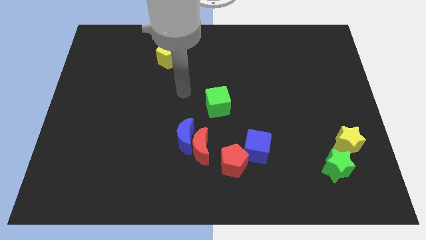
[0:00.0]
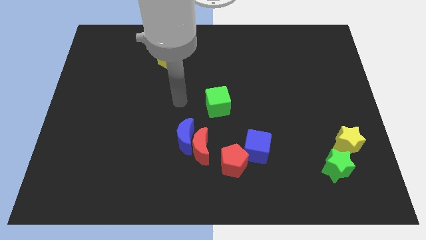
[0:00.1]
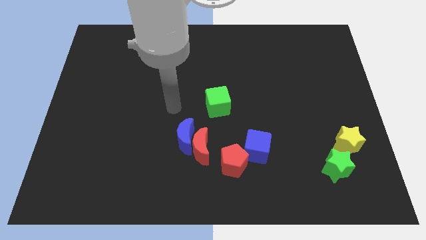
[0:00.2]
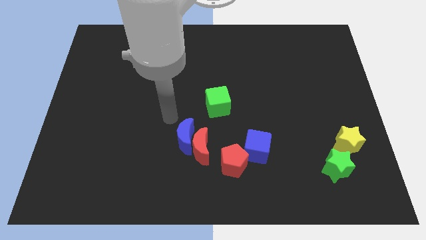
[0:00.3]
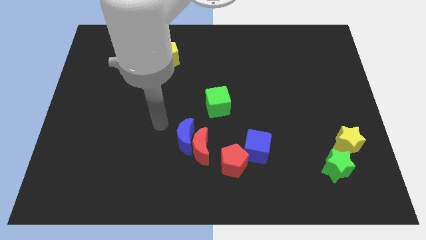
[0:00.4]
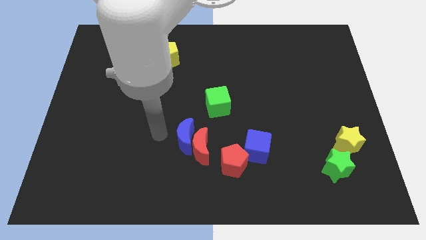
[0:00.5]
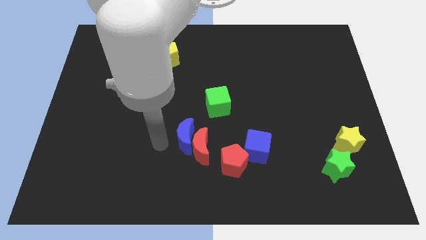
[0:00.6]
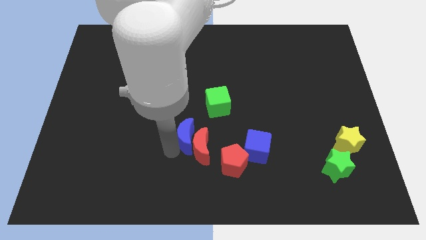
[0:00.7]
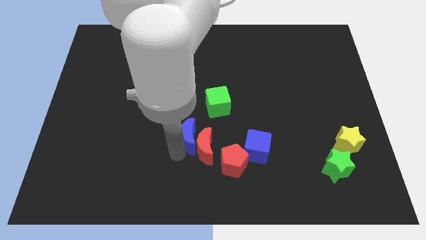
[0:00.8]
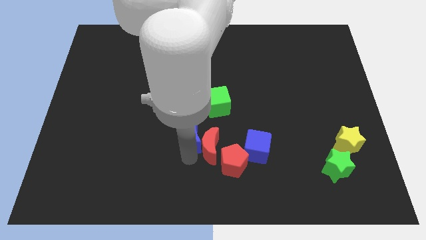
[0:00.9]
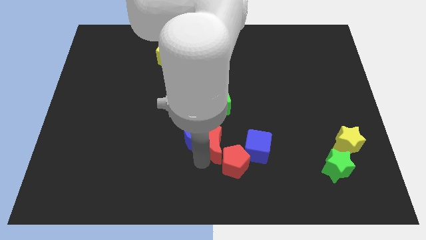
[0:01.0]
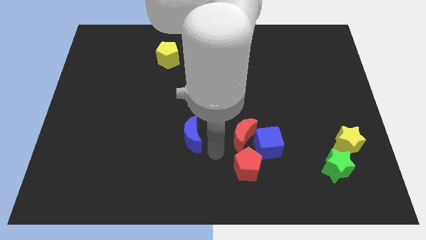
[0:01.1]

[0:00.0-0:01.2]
pull the blue moon apart from the red moon

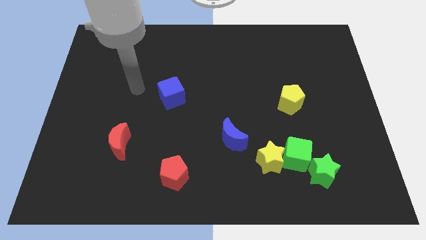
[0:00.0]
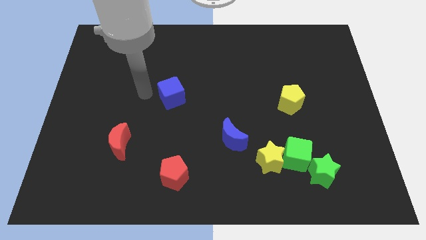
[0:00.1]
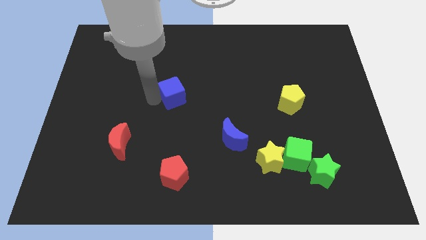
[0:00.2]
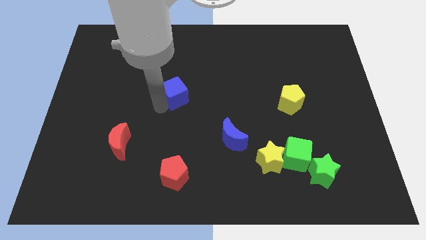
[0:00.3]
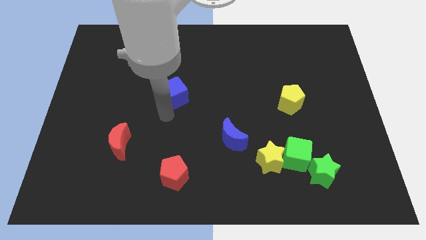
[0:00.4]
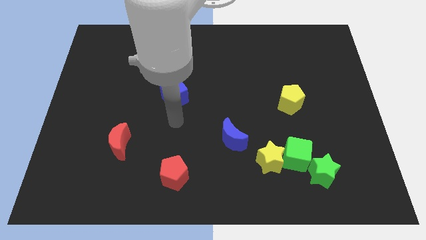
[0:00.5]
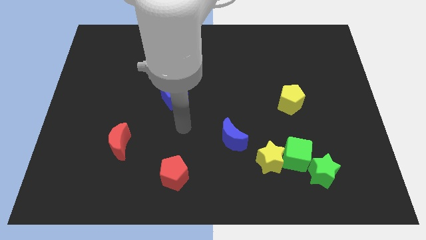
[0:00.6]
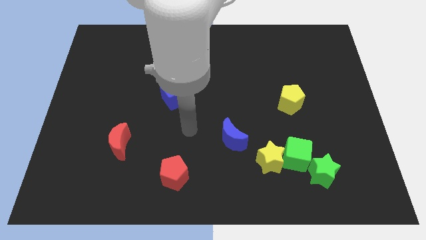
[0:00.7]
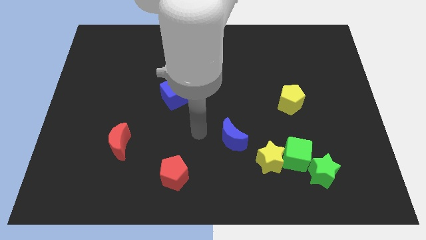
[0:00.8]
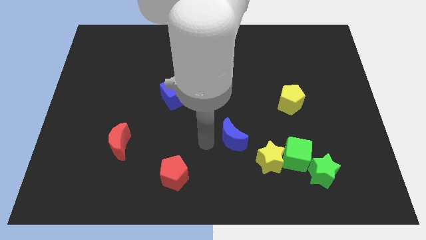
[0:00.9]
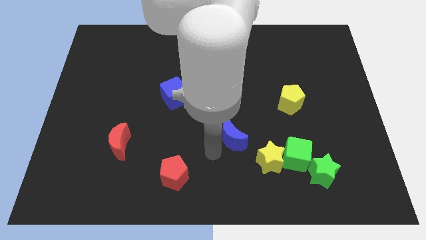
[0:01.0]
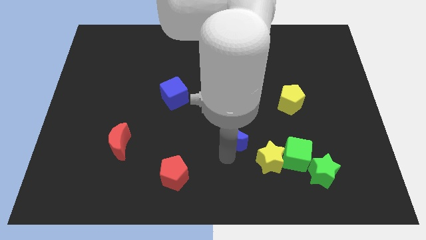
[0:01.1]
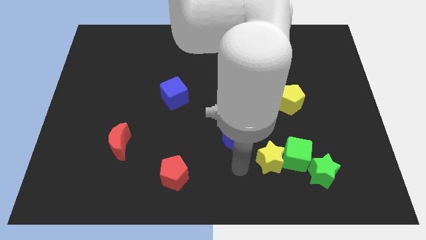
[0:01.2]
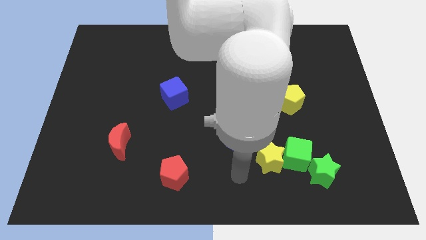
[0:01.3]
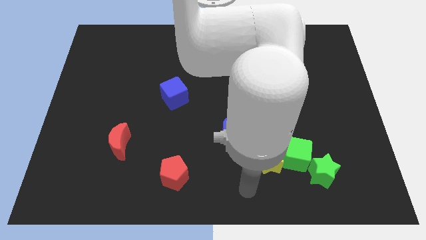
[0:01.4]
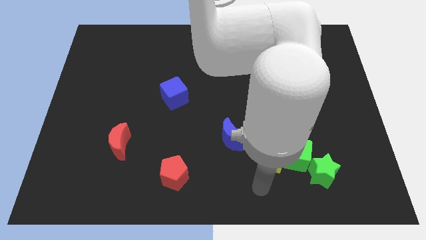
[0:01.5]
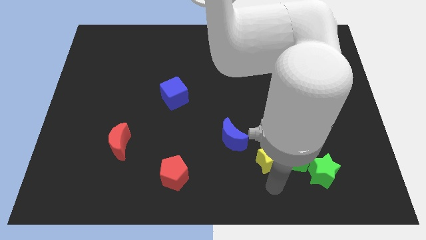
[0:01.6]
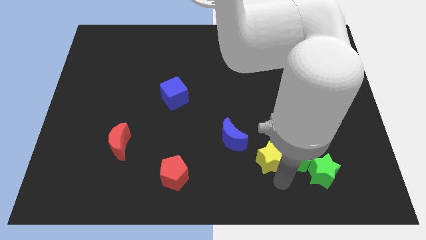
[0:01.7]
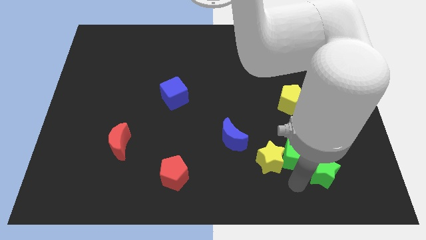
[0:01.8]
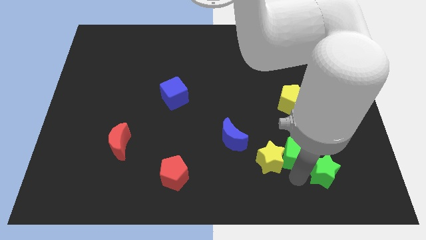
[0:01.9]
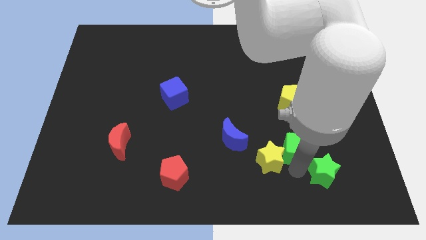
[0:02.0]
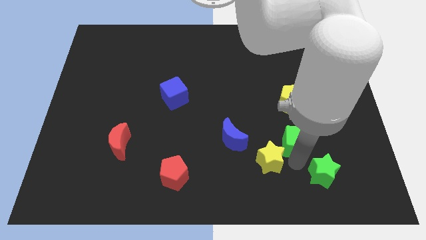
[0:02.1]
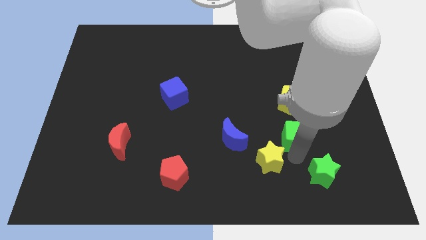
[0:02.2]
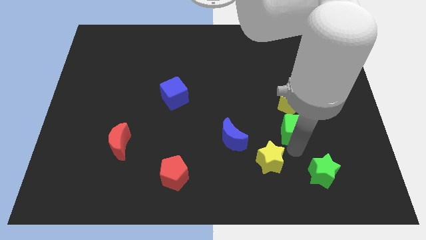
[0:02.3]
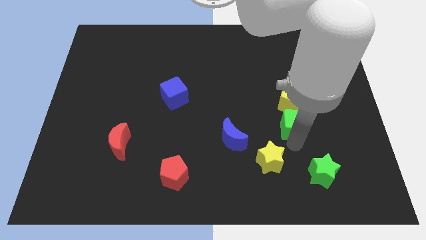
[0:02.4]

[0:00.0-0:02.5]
separate the green cube from the yellow star and green star

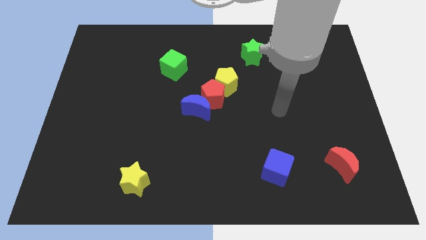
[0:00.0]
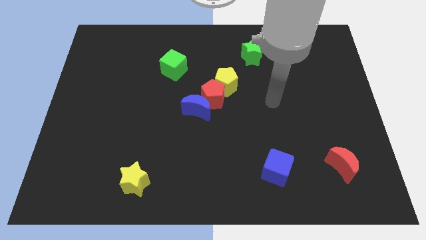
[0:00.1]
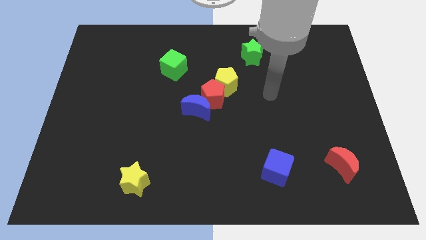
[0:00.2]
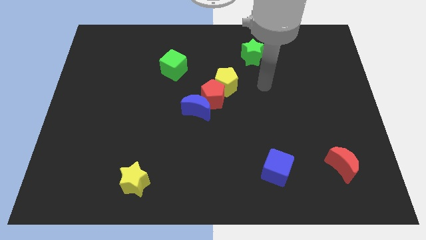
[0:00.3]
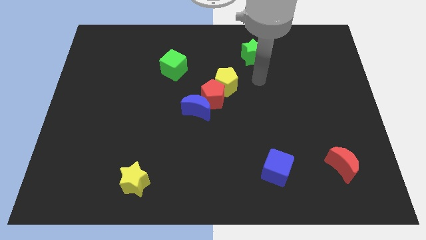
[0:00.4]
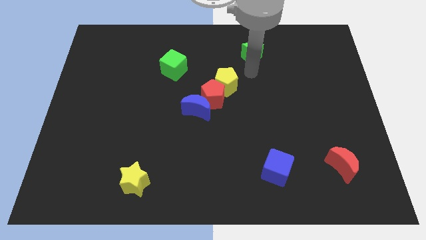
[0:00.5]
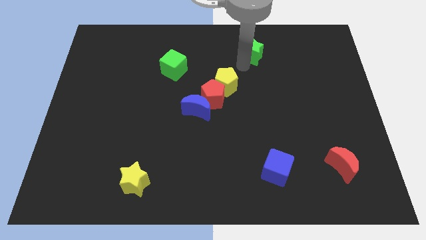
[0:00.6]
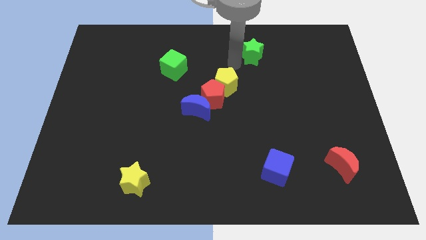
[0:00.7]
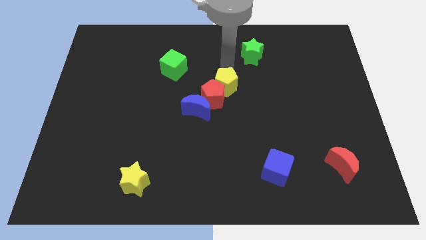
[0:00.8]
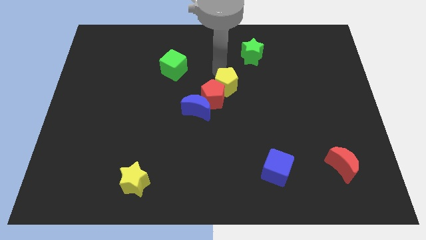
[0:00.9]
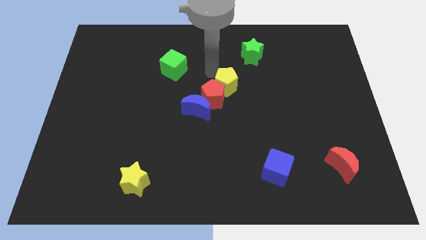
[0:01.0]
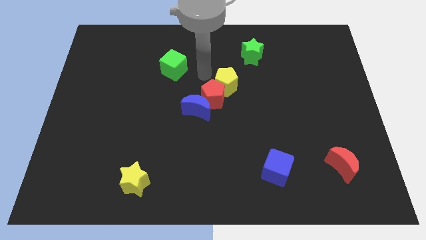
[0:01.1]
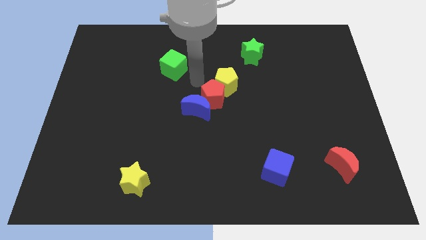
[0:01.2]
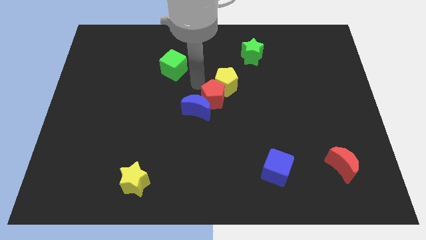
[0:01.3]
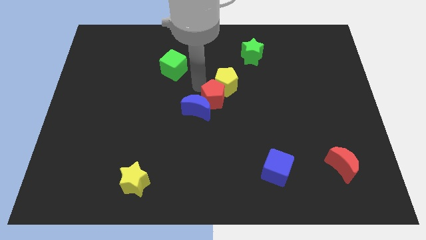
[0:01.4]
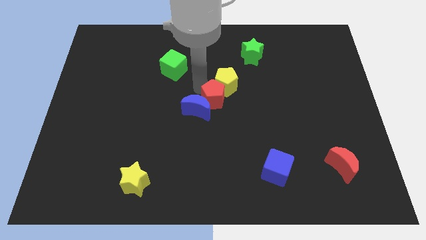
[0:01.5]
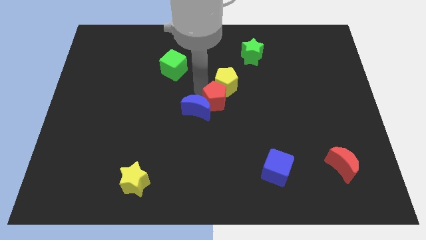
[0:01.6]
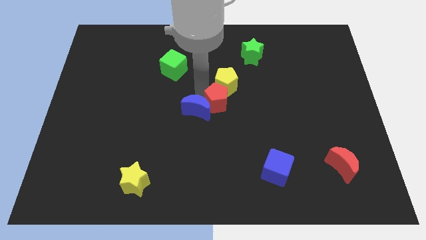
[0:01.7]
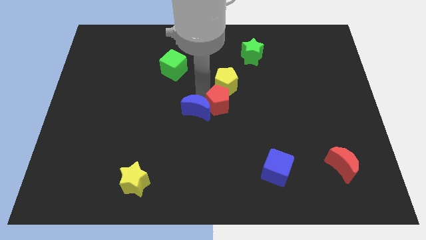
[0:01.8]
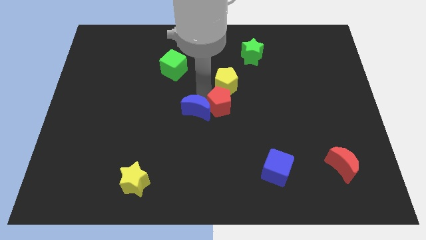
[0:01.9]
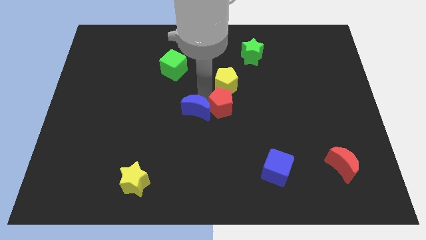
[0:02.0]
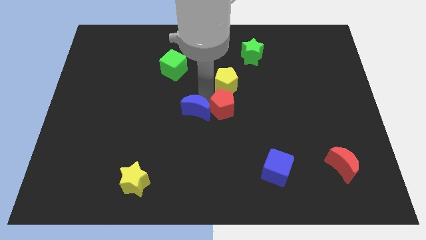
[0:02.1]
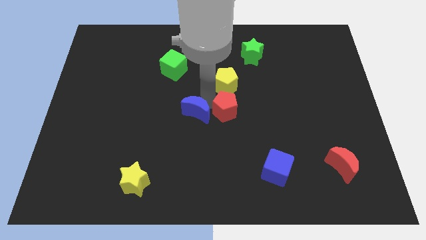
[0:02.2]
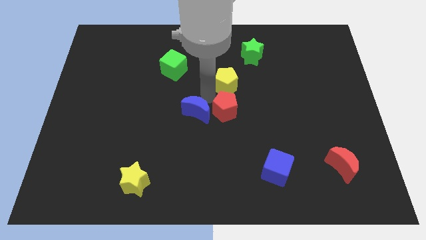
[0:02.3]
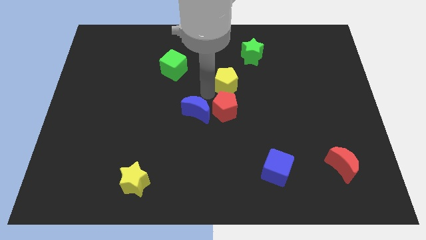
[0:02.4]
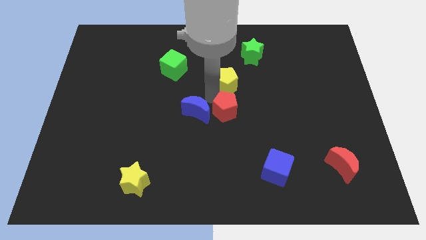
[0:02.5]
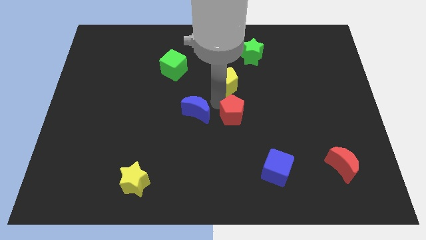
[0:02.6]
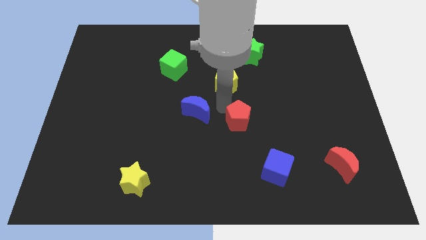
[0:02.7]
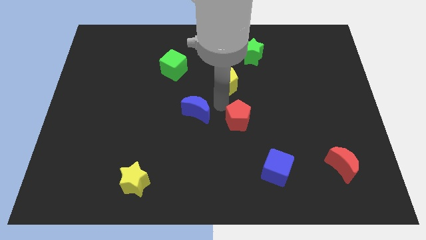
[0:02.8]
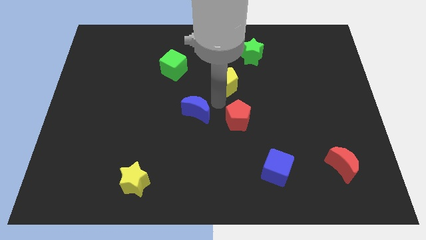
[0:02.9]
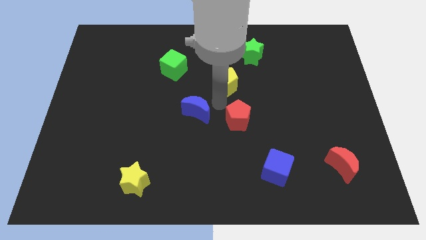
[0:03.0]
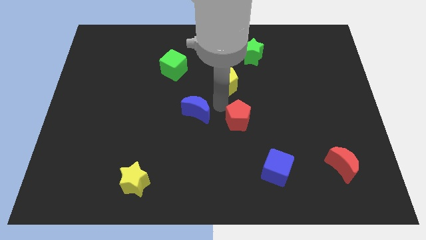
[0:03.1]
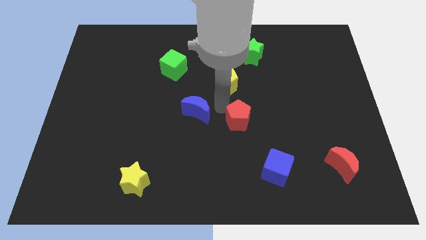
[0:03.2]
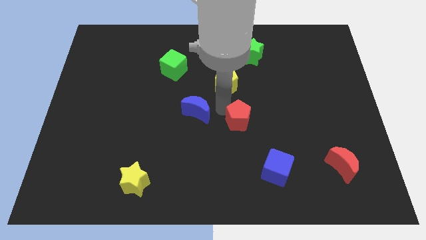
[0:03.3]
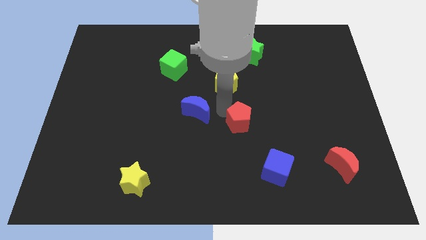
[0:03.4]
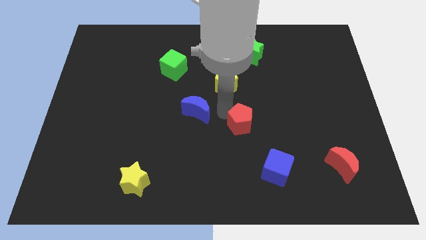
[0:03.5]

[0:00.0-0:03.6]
move the red pentagon away from the blue moon and yellow pentagon

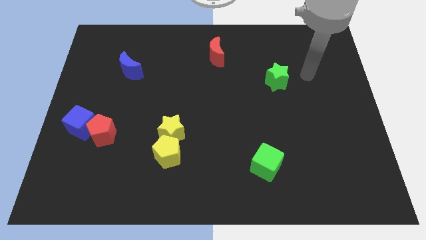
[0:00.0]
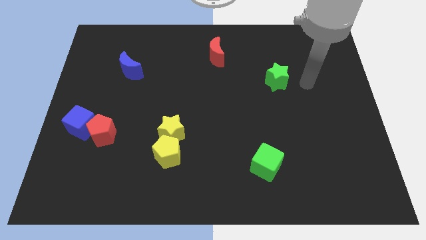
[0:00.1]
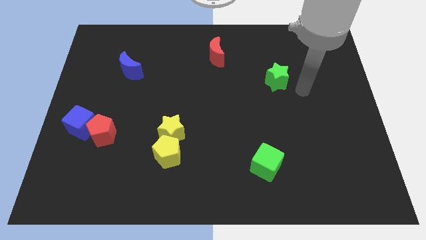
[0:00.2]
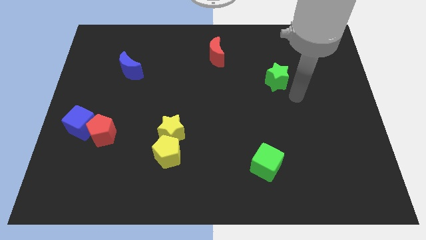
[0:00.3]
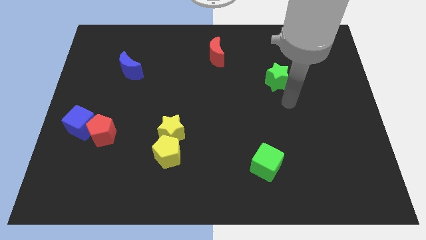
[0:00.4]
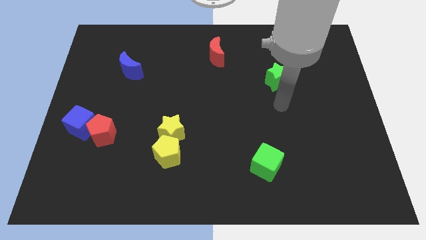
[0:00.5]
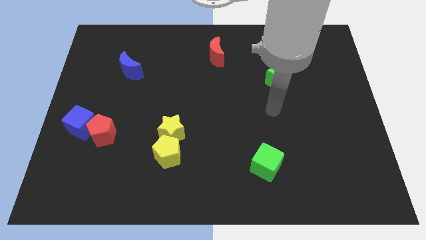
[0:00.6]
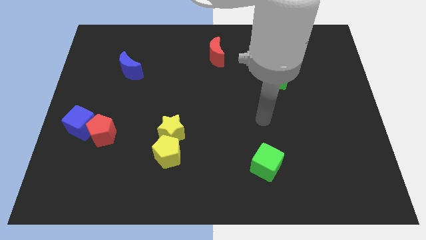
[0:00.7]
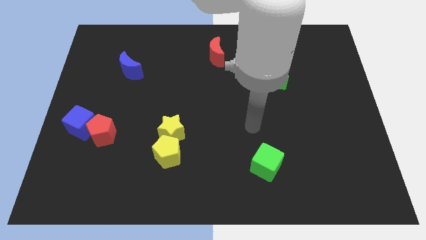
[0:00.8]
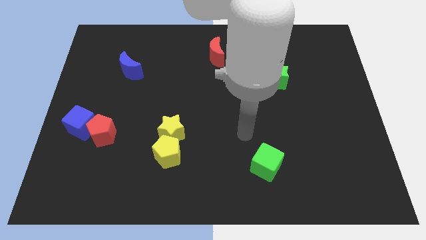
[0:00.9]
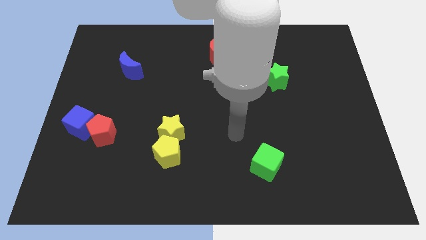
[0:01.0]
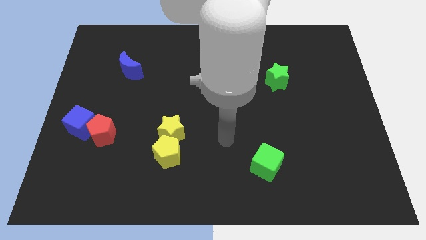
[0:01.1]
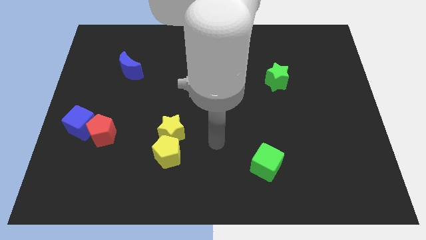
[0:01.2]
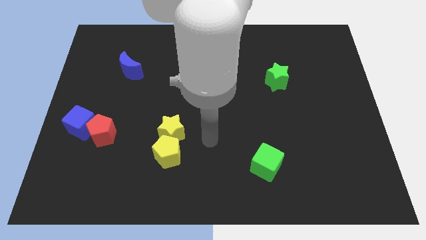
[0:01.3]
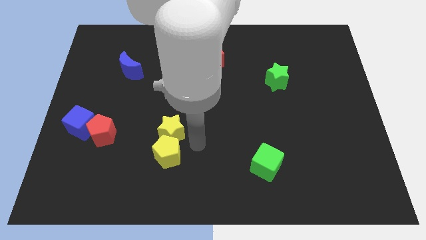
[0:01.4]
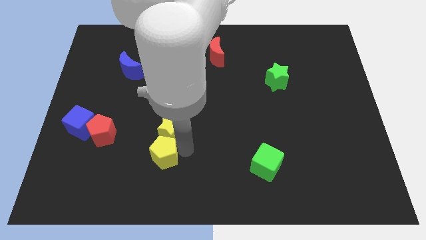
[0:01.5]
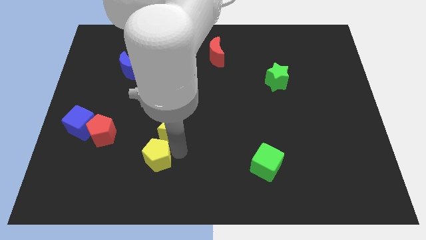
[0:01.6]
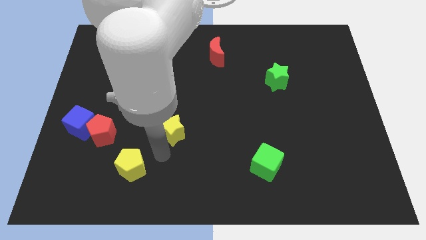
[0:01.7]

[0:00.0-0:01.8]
separate the yellow star from the yellow pentagon

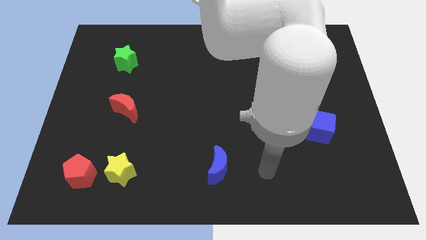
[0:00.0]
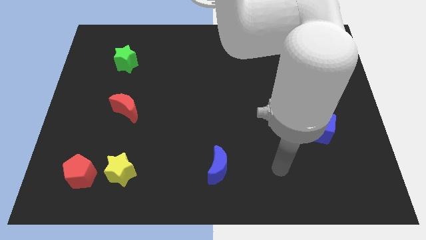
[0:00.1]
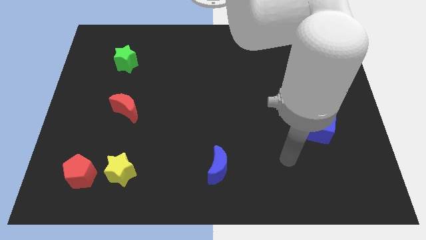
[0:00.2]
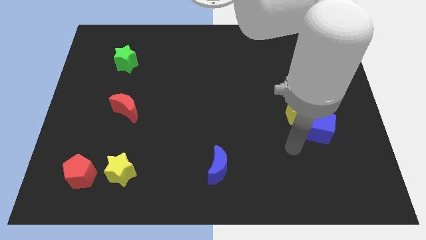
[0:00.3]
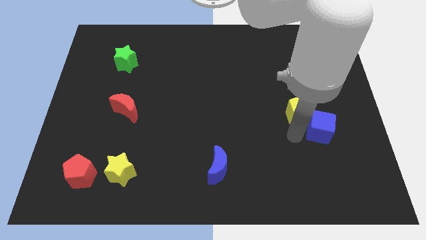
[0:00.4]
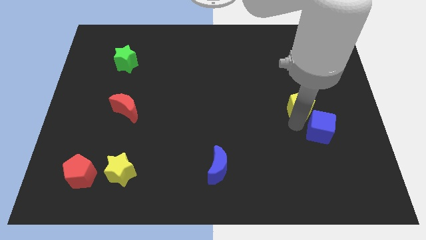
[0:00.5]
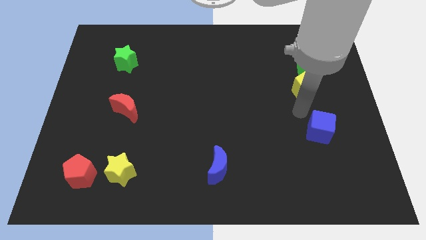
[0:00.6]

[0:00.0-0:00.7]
pull the blue cube apart from the yellow pentagon
